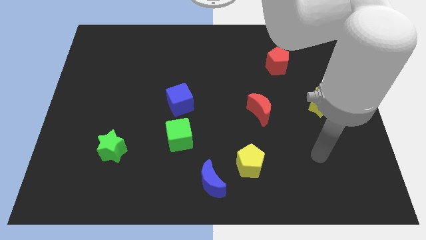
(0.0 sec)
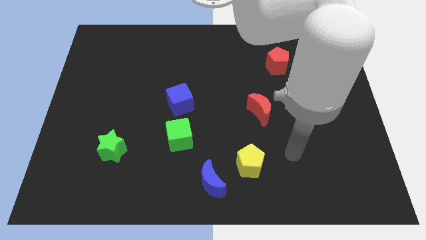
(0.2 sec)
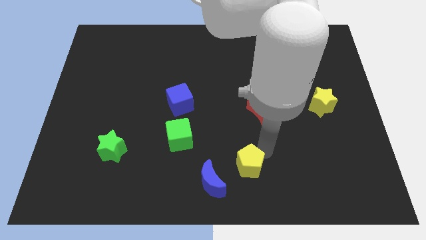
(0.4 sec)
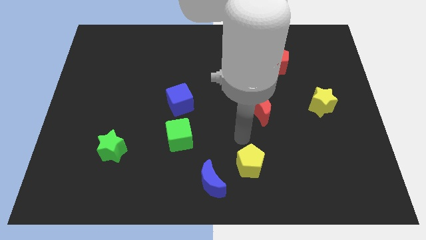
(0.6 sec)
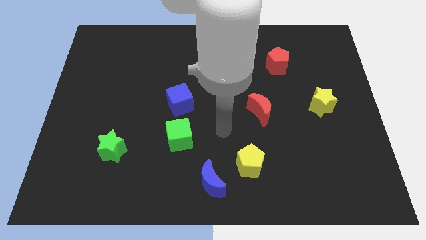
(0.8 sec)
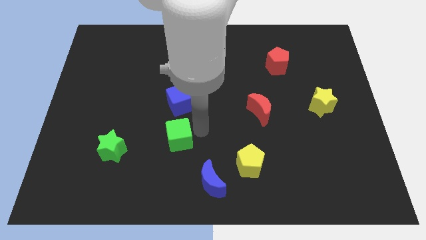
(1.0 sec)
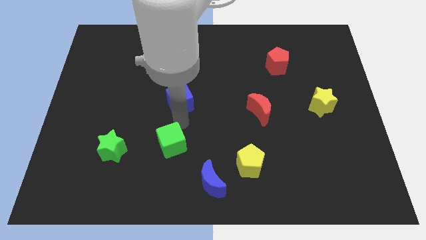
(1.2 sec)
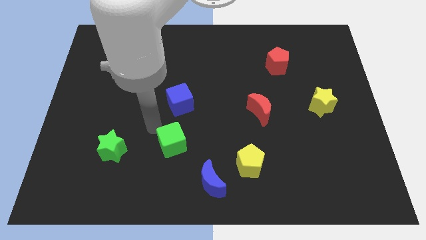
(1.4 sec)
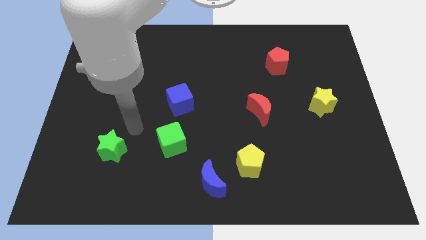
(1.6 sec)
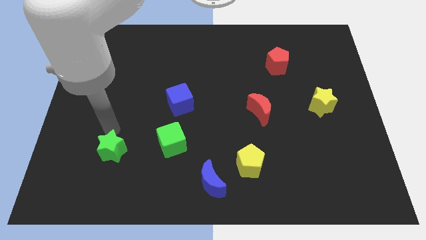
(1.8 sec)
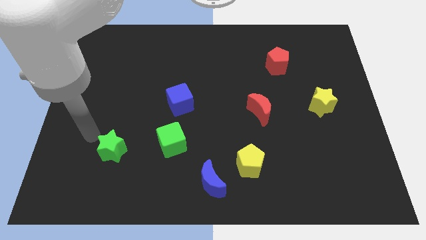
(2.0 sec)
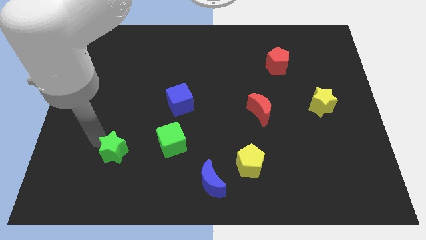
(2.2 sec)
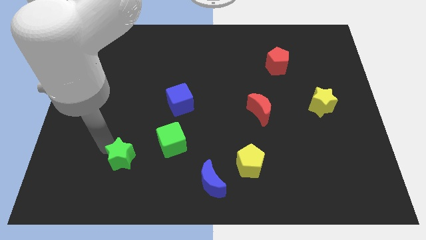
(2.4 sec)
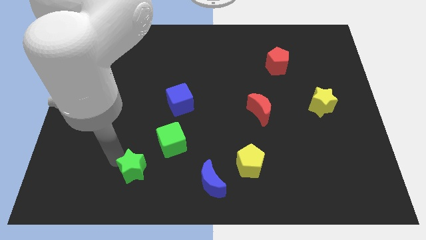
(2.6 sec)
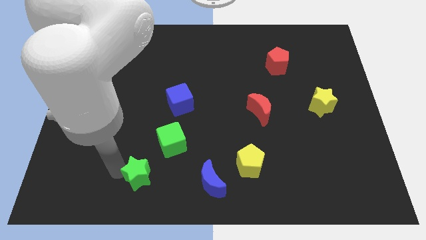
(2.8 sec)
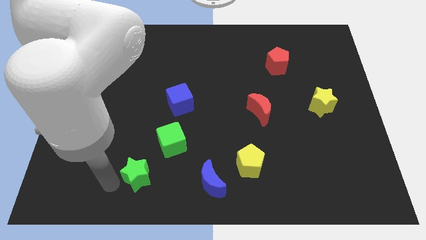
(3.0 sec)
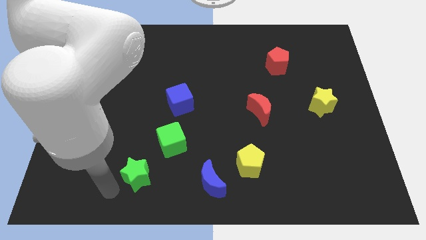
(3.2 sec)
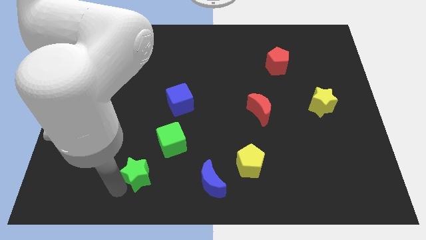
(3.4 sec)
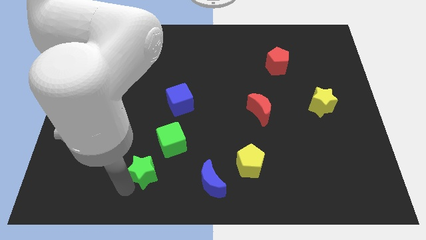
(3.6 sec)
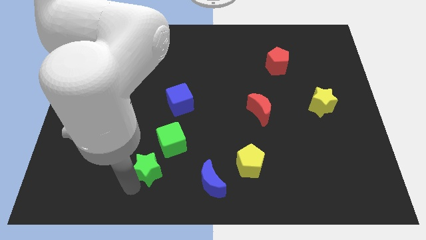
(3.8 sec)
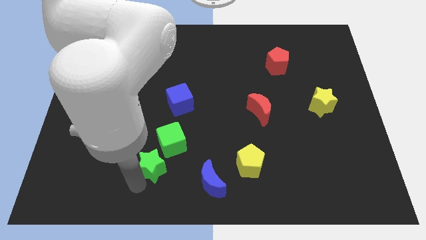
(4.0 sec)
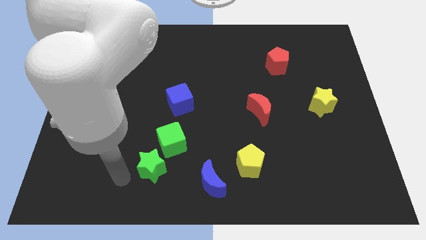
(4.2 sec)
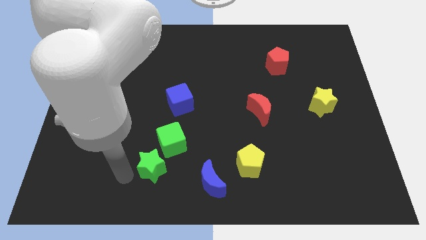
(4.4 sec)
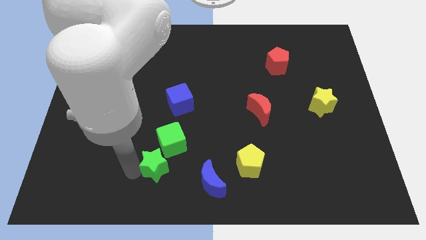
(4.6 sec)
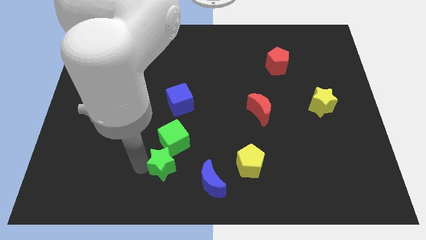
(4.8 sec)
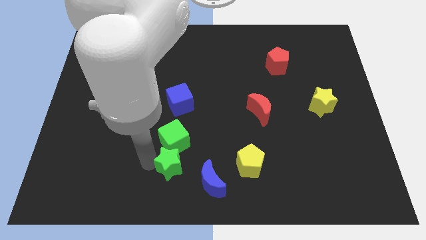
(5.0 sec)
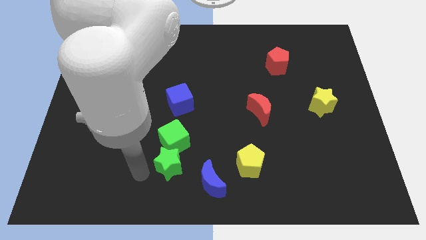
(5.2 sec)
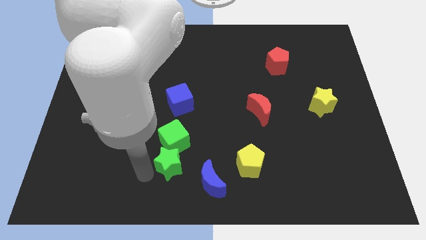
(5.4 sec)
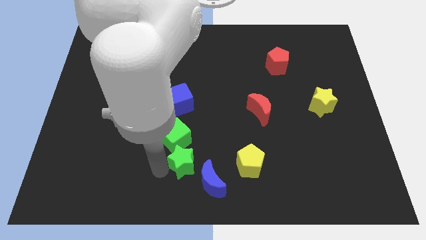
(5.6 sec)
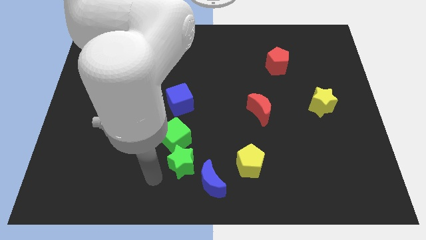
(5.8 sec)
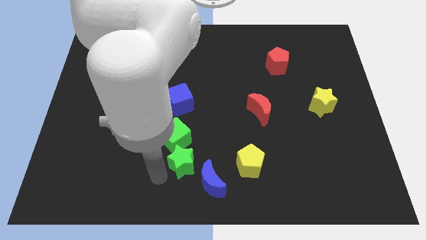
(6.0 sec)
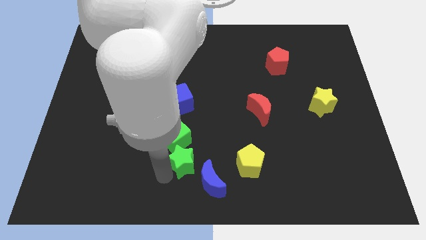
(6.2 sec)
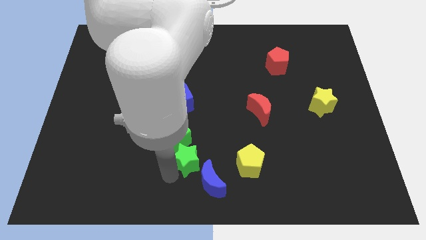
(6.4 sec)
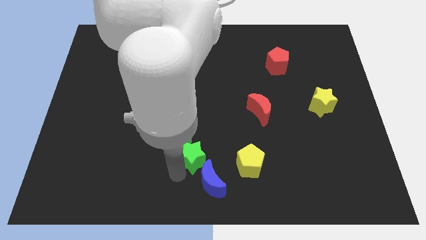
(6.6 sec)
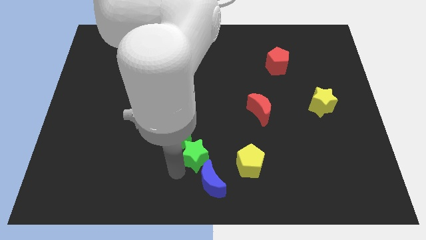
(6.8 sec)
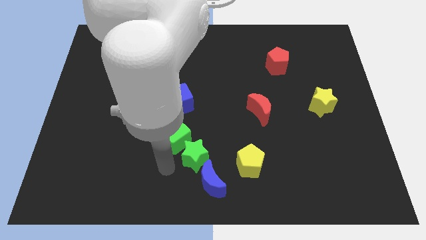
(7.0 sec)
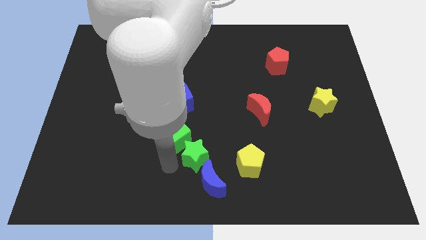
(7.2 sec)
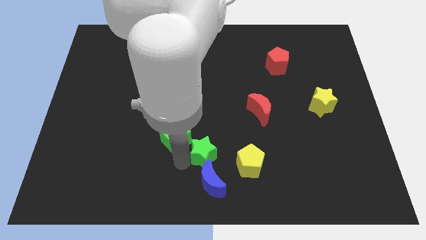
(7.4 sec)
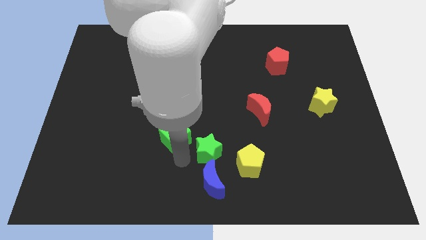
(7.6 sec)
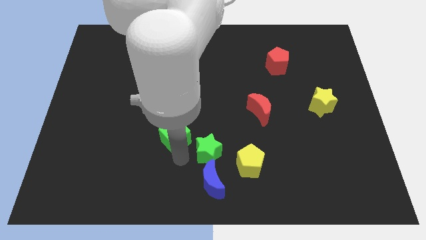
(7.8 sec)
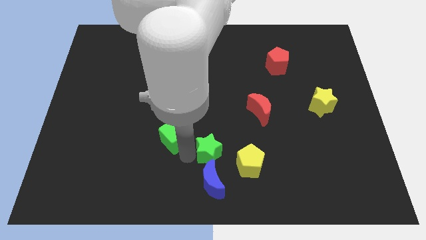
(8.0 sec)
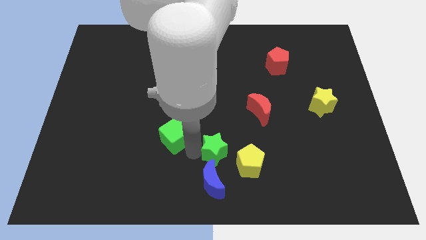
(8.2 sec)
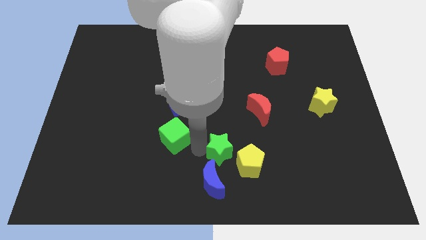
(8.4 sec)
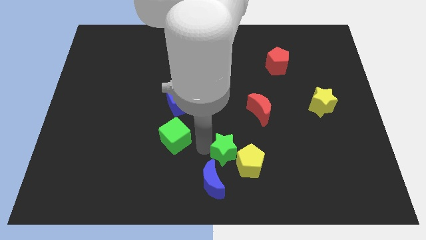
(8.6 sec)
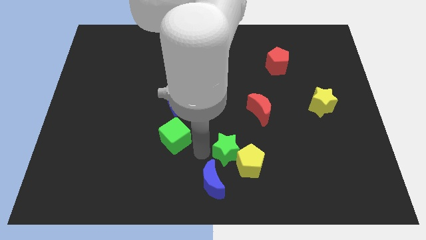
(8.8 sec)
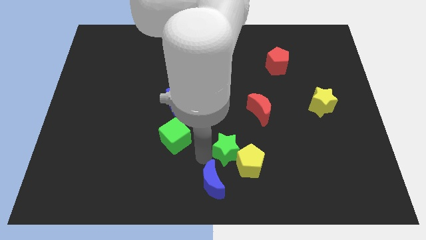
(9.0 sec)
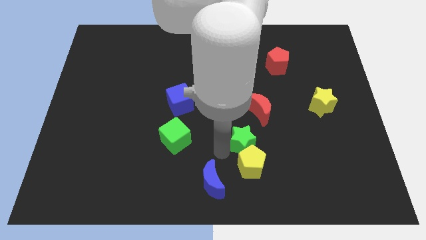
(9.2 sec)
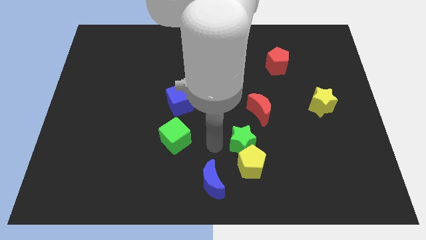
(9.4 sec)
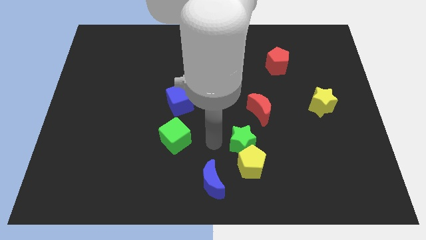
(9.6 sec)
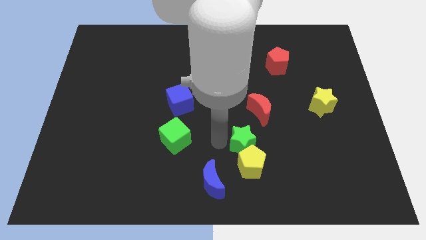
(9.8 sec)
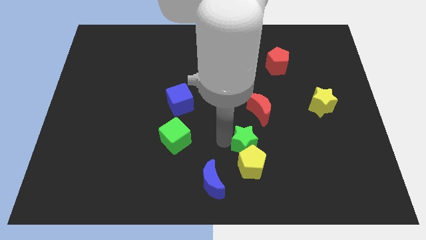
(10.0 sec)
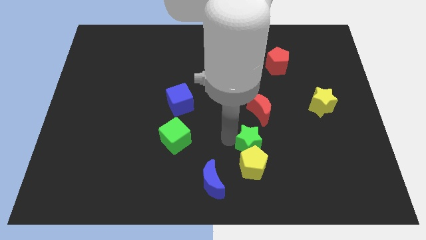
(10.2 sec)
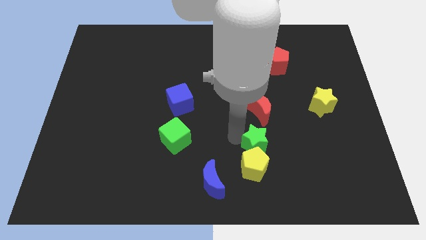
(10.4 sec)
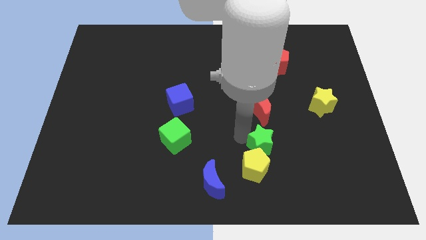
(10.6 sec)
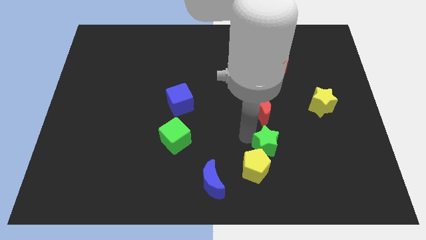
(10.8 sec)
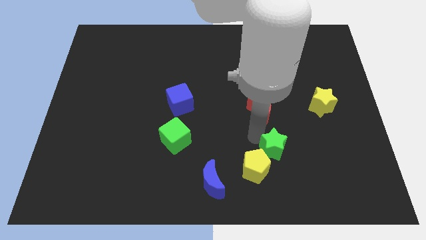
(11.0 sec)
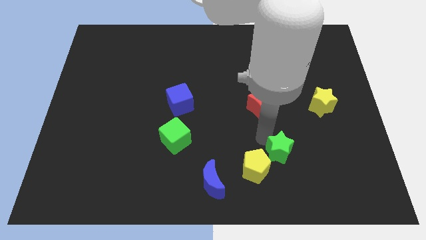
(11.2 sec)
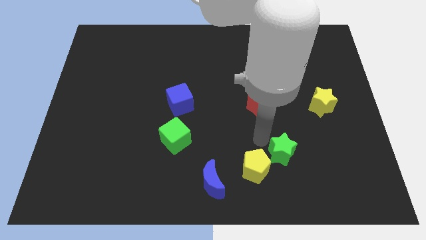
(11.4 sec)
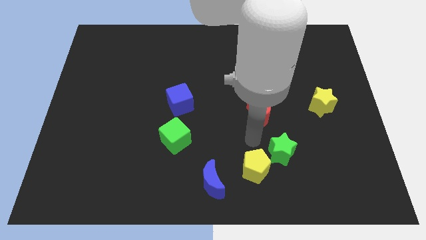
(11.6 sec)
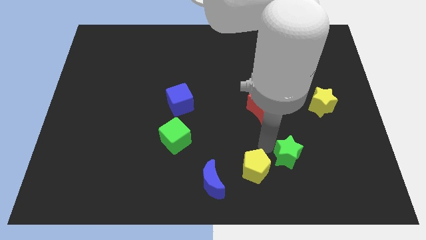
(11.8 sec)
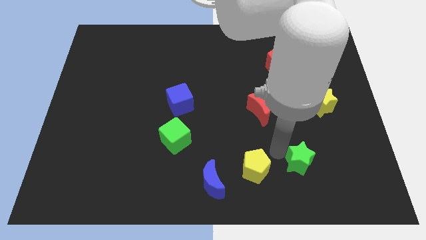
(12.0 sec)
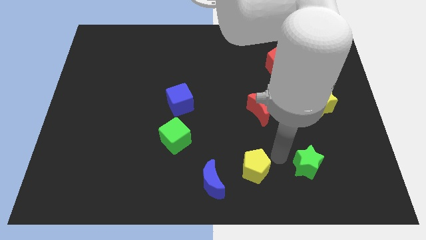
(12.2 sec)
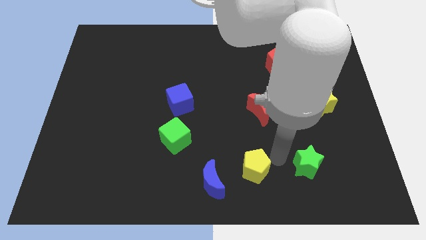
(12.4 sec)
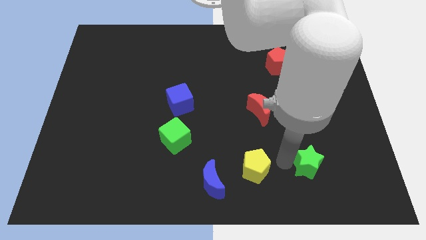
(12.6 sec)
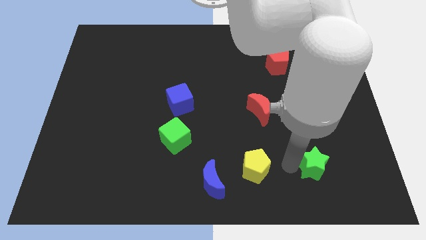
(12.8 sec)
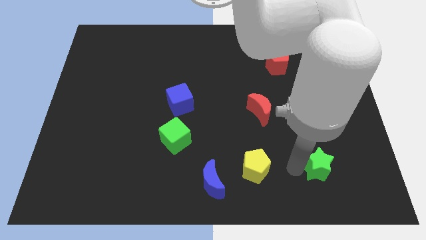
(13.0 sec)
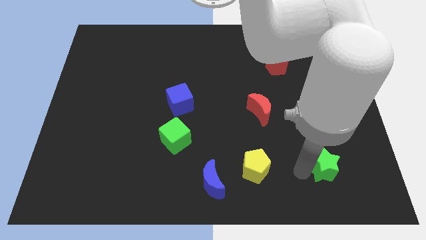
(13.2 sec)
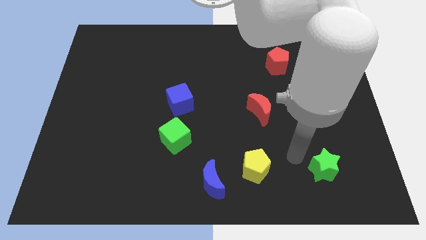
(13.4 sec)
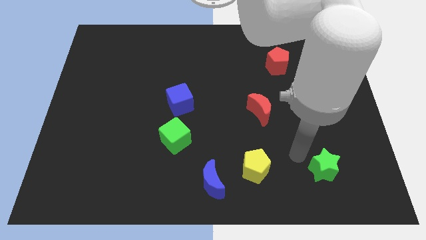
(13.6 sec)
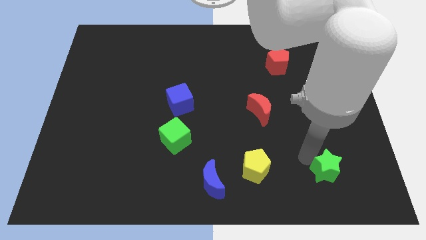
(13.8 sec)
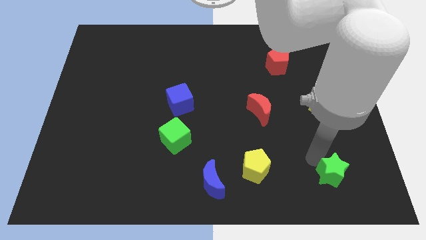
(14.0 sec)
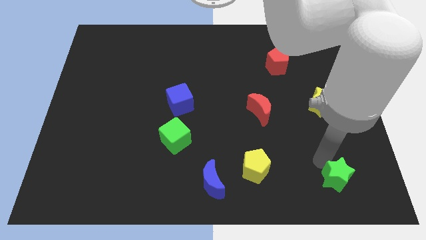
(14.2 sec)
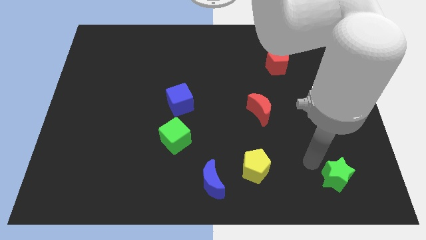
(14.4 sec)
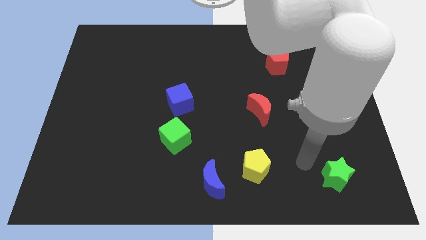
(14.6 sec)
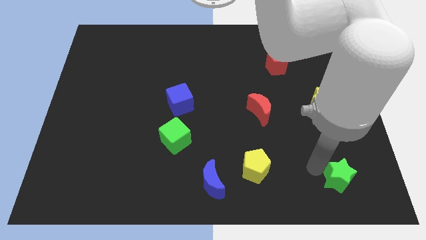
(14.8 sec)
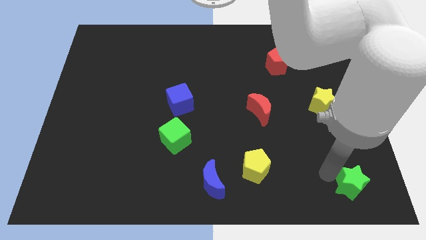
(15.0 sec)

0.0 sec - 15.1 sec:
move the green star to the bottom right
